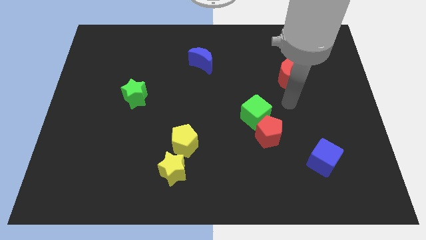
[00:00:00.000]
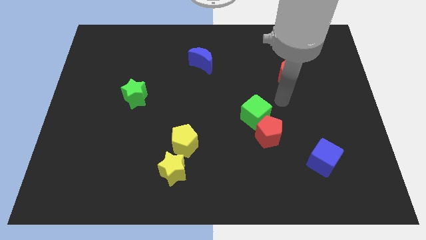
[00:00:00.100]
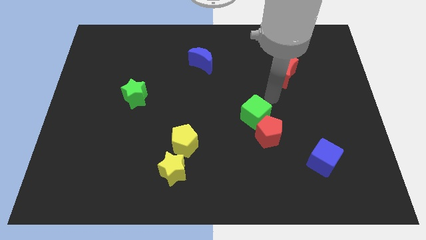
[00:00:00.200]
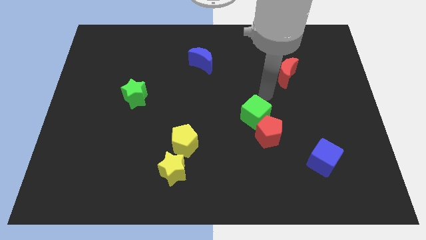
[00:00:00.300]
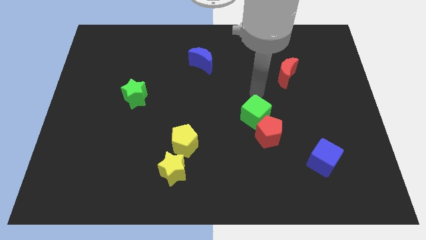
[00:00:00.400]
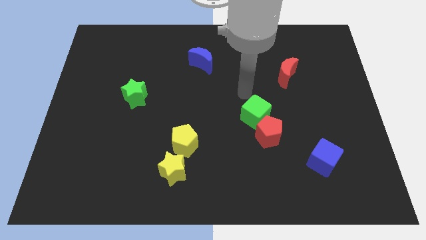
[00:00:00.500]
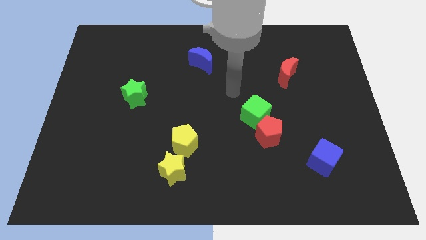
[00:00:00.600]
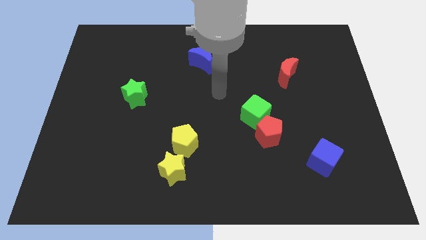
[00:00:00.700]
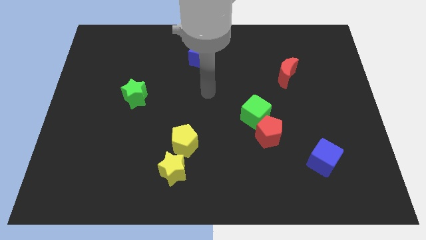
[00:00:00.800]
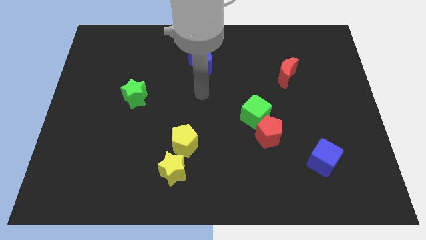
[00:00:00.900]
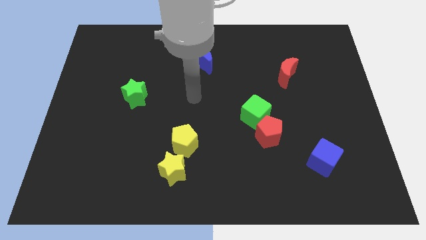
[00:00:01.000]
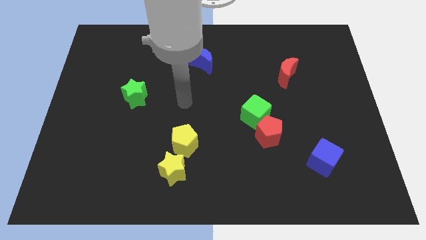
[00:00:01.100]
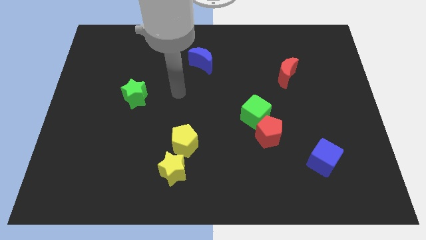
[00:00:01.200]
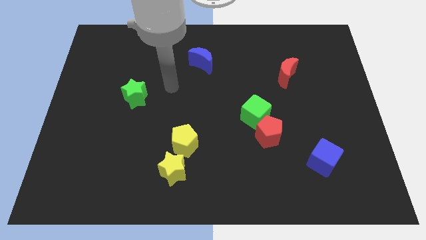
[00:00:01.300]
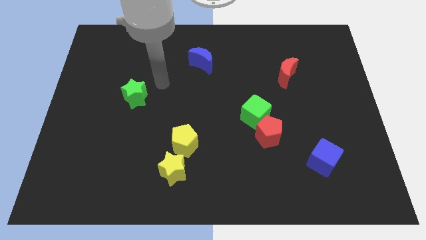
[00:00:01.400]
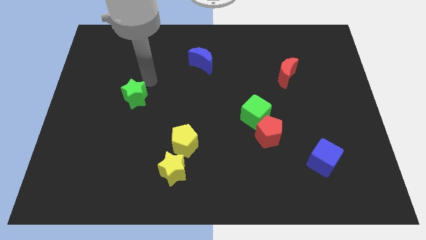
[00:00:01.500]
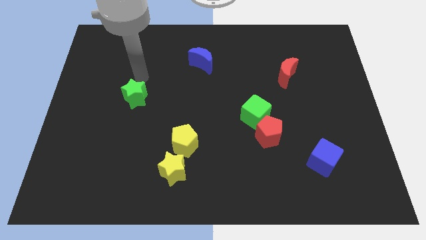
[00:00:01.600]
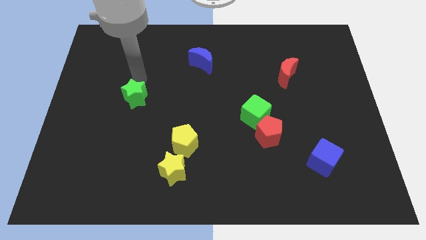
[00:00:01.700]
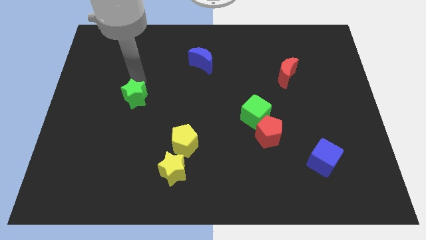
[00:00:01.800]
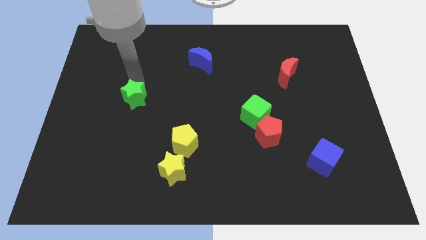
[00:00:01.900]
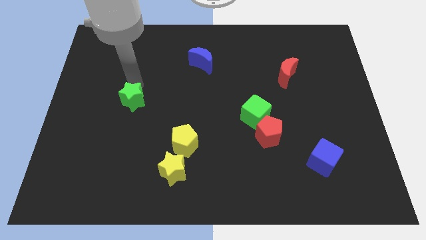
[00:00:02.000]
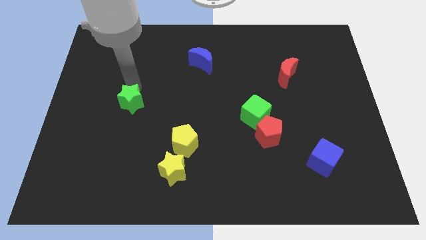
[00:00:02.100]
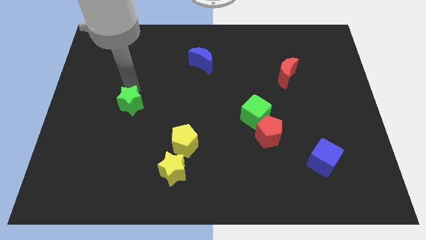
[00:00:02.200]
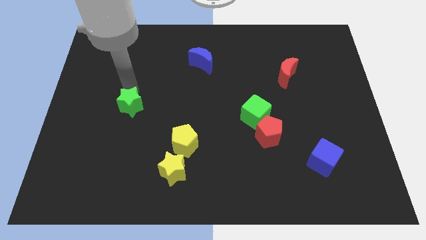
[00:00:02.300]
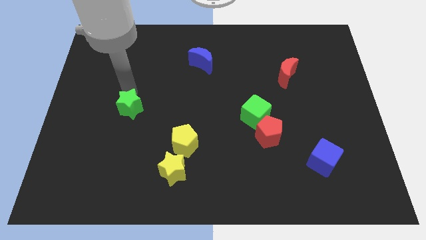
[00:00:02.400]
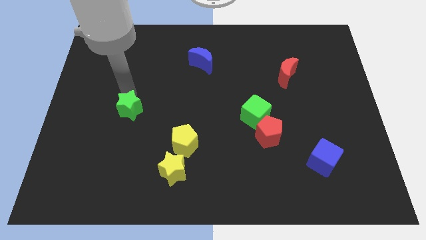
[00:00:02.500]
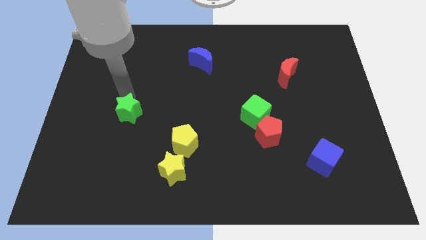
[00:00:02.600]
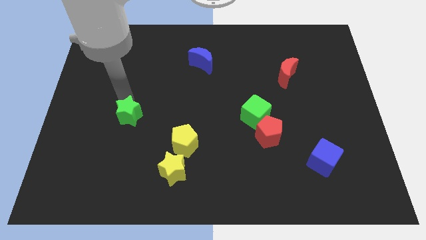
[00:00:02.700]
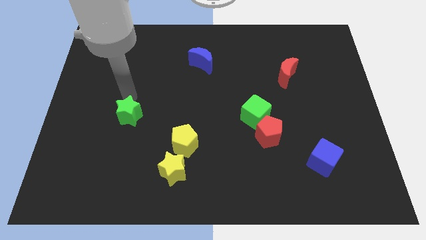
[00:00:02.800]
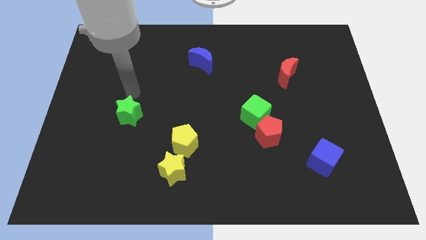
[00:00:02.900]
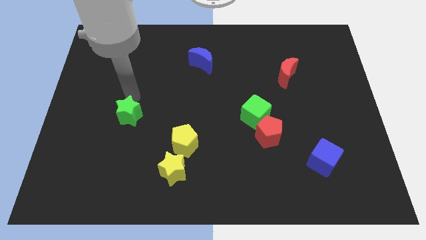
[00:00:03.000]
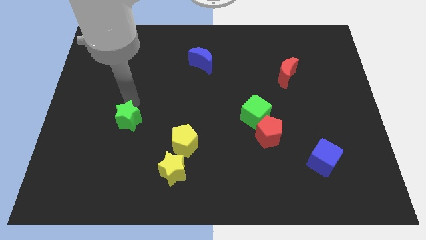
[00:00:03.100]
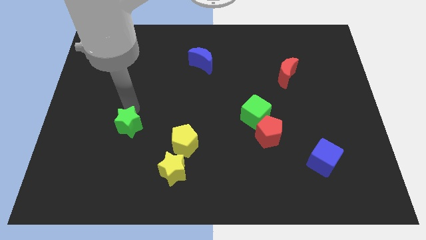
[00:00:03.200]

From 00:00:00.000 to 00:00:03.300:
slide the green star downwards somewhat

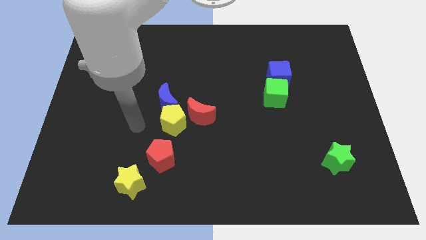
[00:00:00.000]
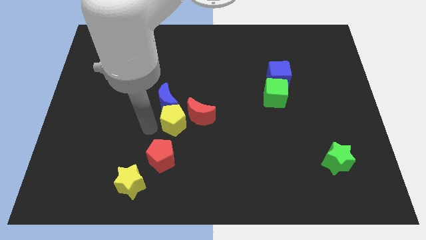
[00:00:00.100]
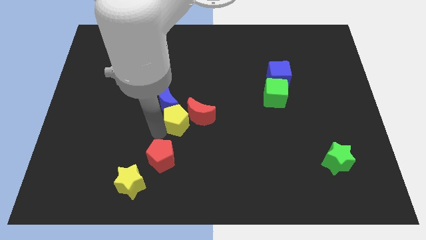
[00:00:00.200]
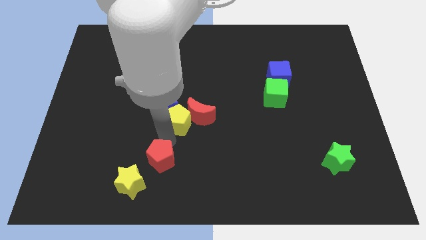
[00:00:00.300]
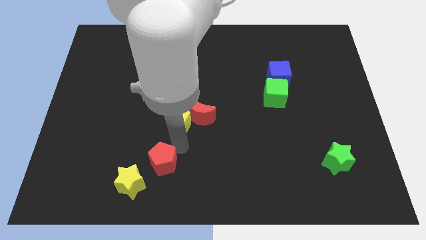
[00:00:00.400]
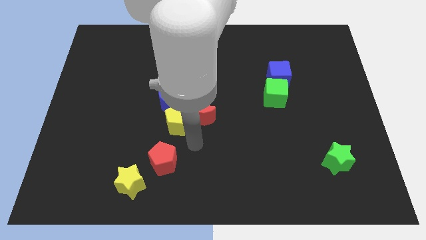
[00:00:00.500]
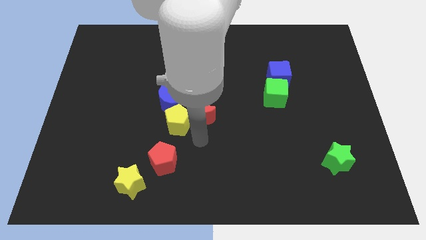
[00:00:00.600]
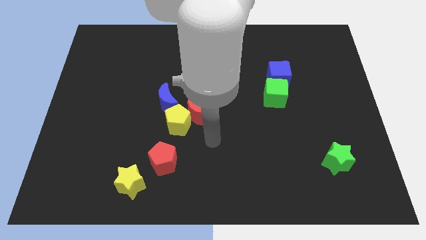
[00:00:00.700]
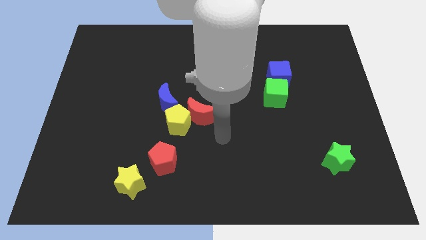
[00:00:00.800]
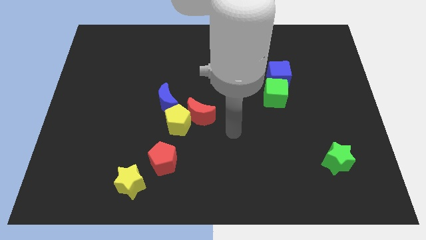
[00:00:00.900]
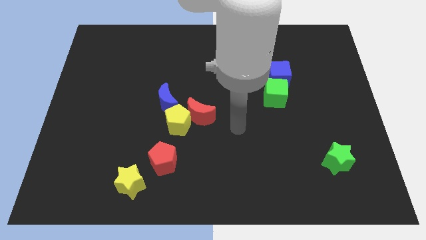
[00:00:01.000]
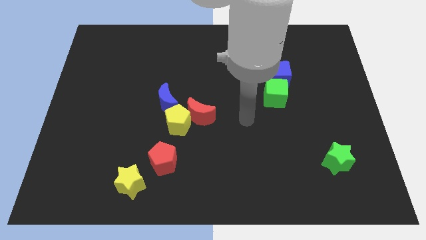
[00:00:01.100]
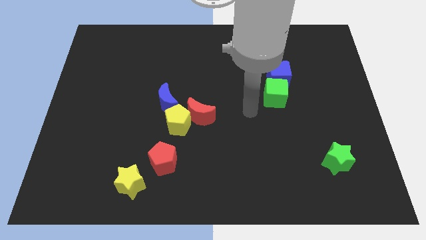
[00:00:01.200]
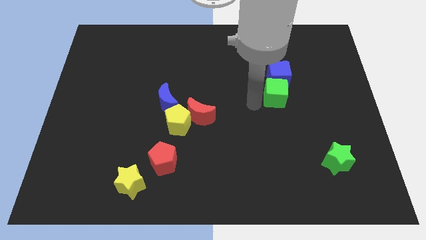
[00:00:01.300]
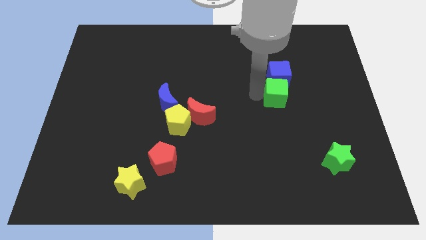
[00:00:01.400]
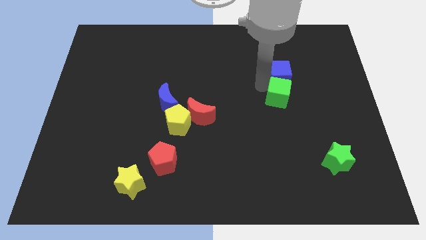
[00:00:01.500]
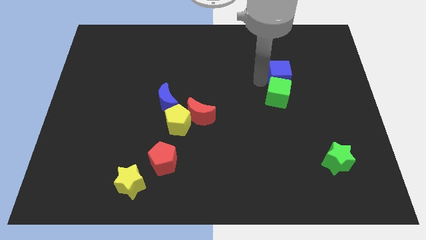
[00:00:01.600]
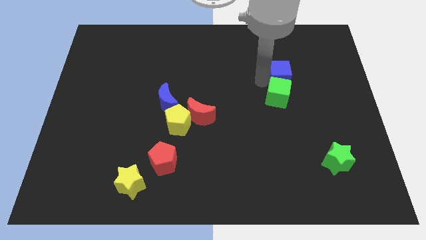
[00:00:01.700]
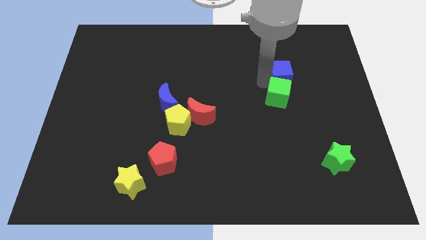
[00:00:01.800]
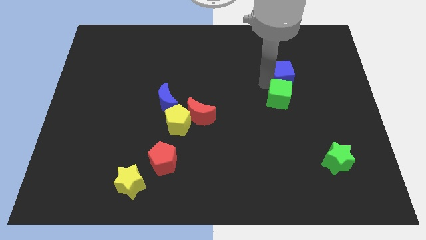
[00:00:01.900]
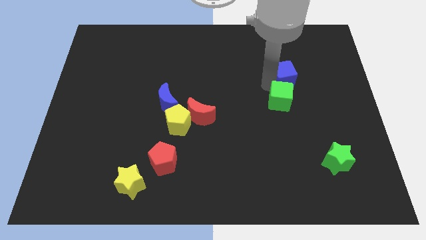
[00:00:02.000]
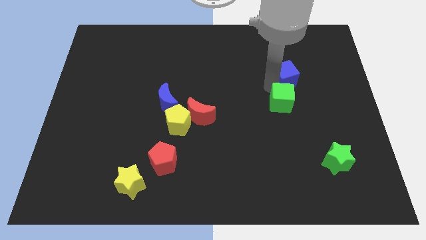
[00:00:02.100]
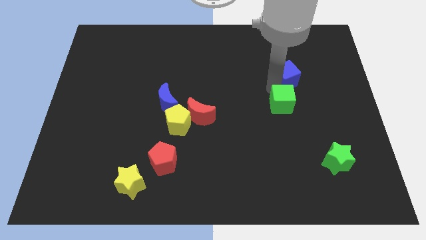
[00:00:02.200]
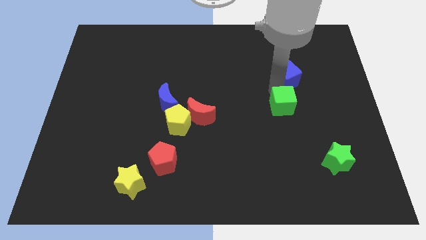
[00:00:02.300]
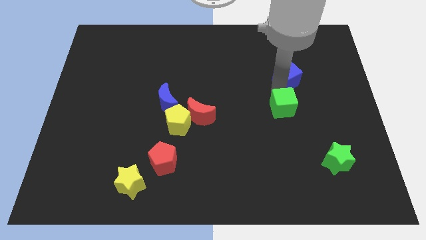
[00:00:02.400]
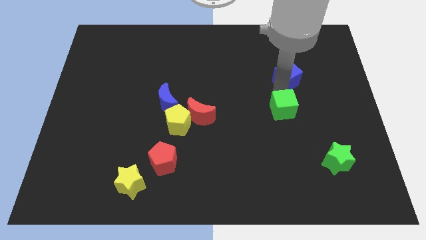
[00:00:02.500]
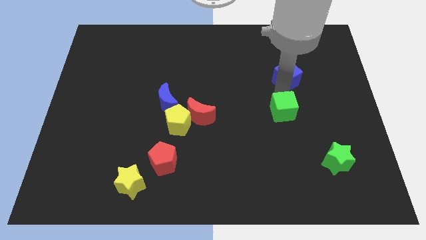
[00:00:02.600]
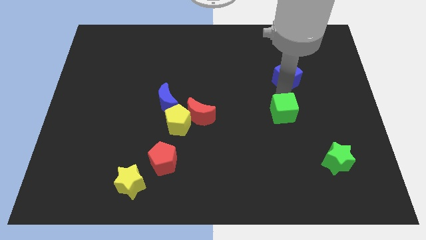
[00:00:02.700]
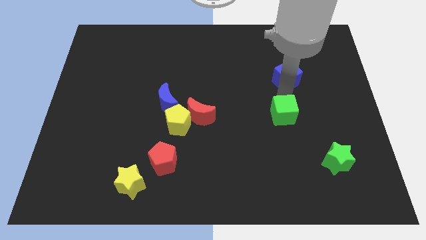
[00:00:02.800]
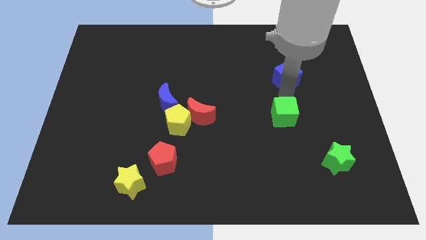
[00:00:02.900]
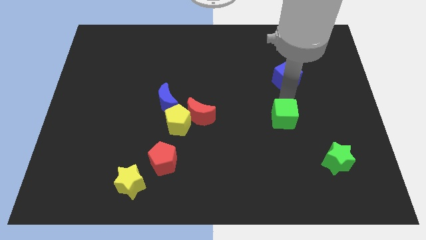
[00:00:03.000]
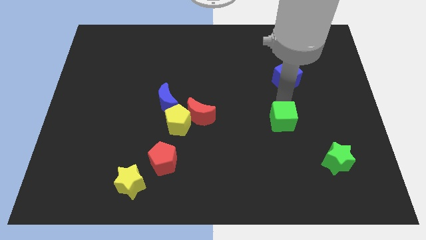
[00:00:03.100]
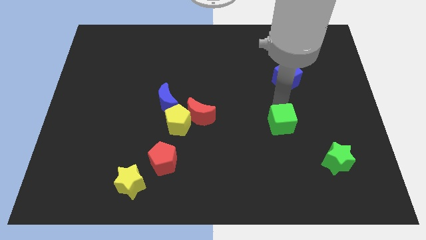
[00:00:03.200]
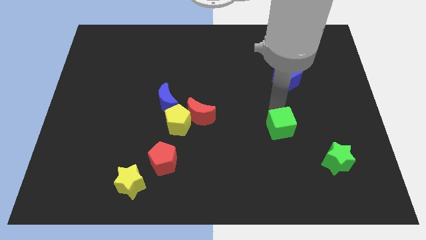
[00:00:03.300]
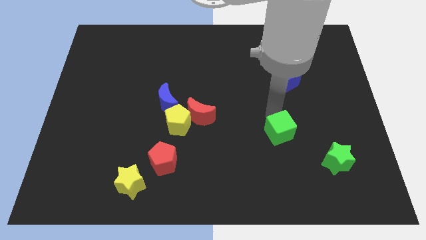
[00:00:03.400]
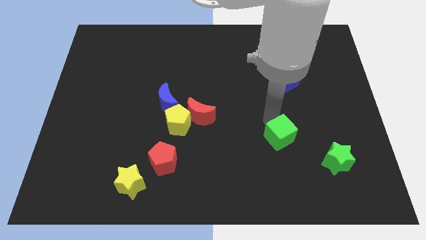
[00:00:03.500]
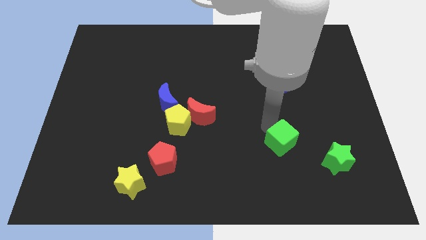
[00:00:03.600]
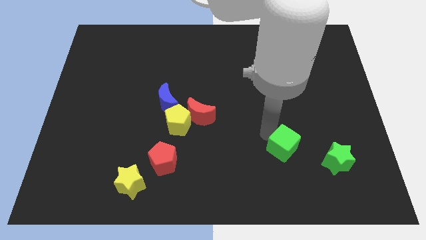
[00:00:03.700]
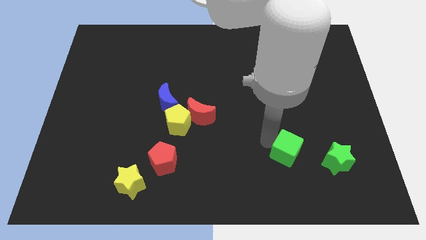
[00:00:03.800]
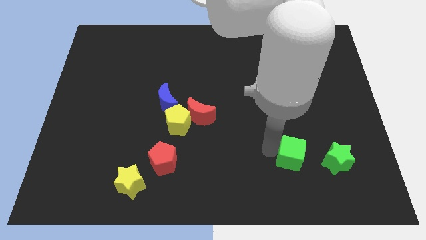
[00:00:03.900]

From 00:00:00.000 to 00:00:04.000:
move the green cube down and then right a bit

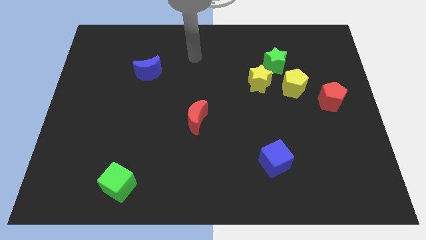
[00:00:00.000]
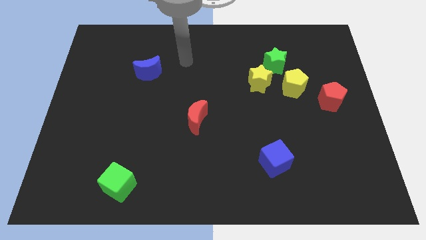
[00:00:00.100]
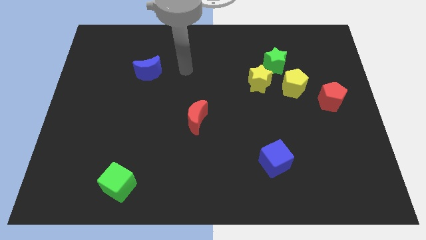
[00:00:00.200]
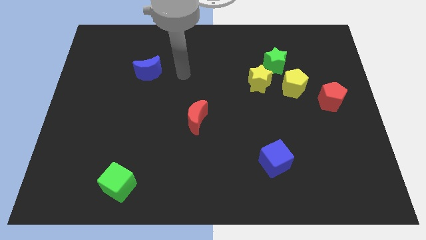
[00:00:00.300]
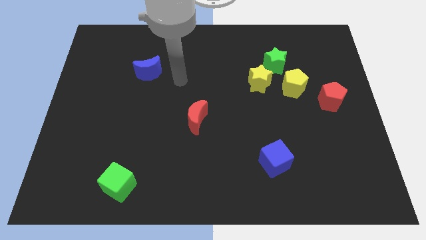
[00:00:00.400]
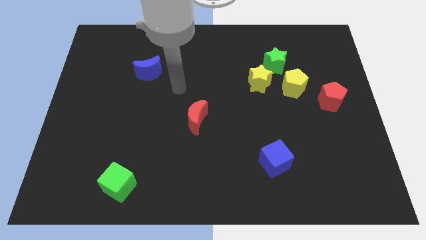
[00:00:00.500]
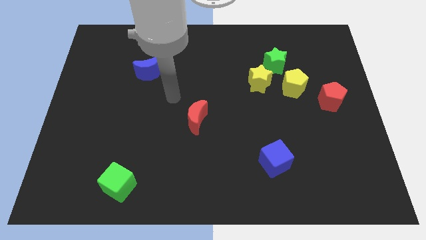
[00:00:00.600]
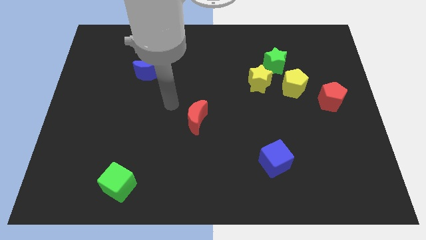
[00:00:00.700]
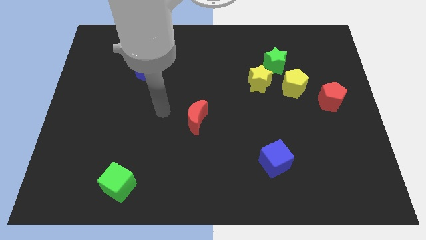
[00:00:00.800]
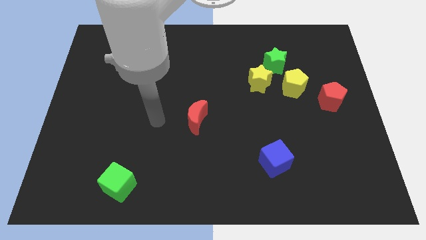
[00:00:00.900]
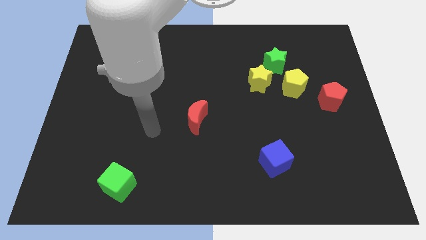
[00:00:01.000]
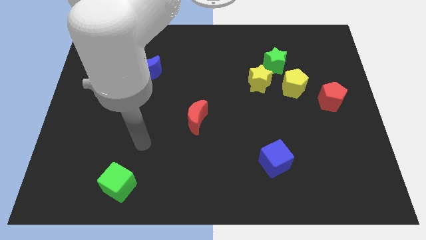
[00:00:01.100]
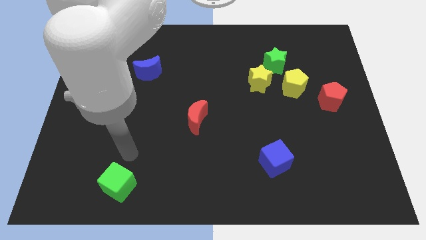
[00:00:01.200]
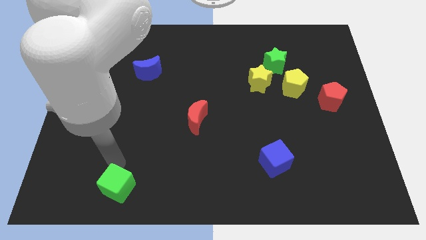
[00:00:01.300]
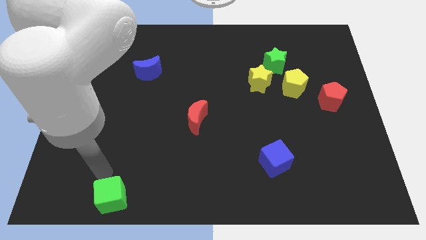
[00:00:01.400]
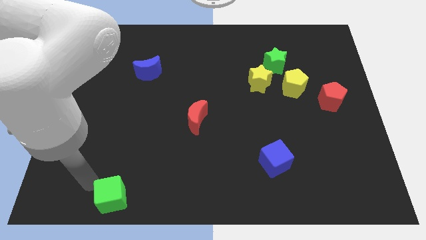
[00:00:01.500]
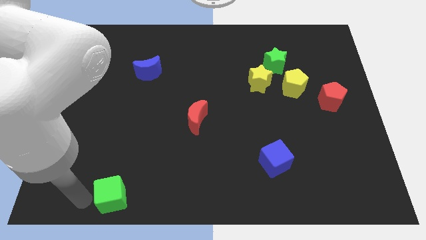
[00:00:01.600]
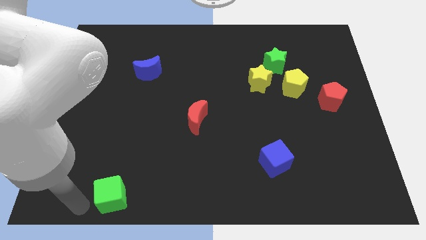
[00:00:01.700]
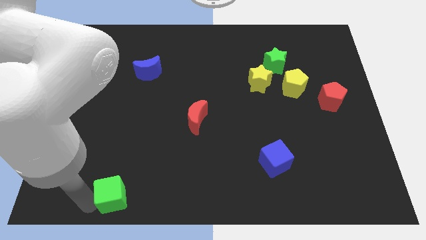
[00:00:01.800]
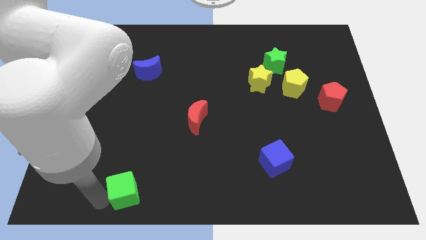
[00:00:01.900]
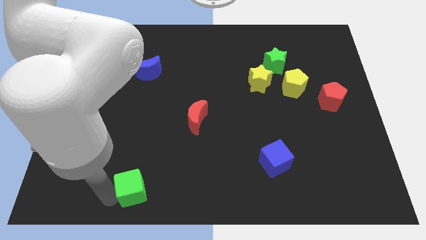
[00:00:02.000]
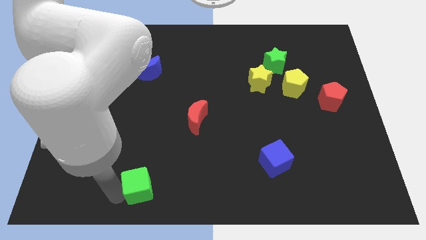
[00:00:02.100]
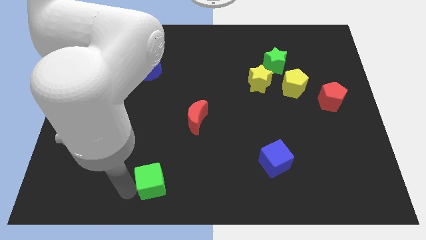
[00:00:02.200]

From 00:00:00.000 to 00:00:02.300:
slightly move the green cube right
